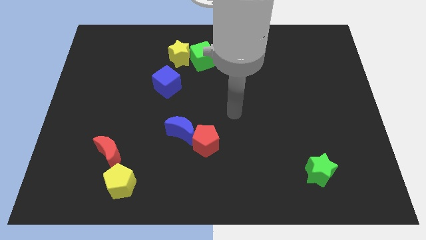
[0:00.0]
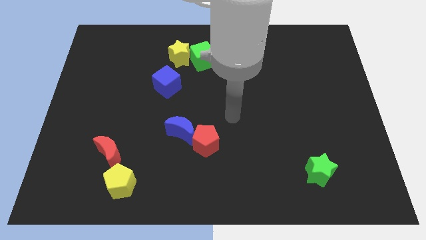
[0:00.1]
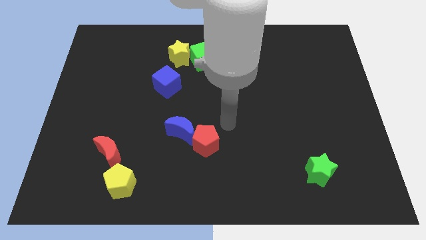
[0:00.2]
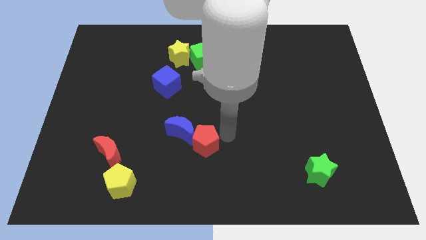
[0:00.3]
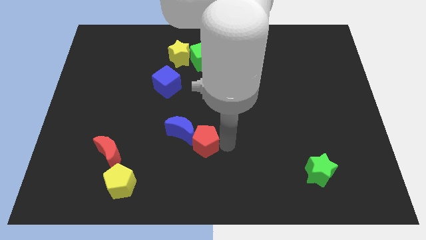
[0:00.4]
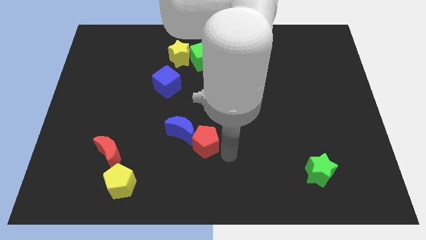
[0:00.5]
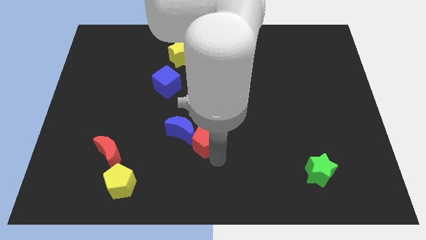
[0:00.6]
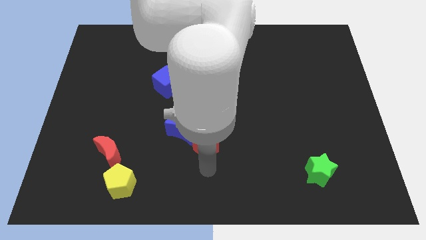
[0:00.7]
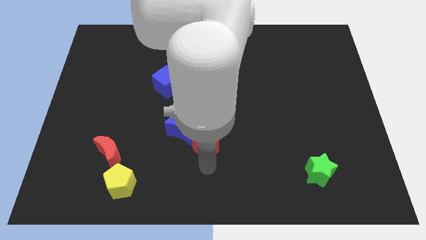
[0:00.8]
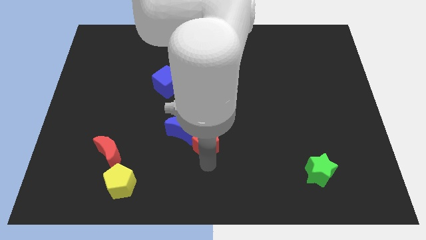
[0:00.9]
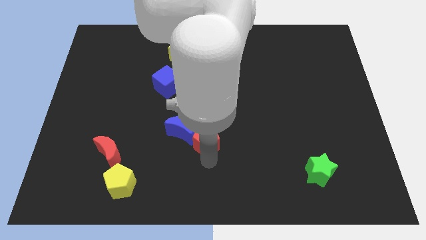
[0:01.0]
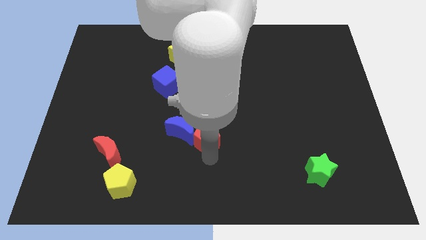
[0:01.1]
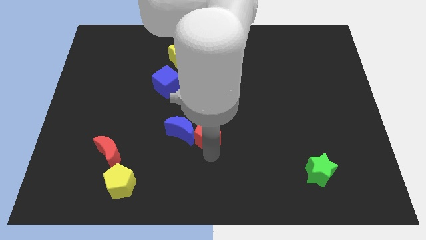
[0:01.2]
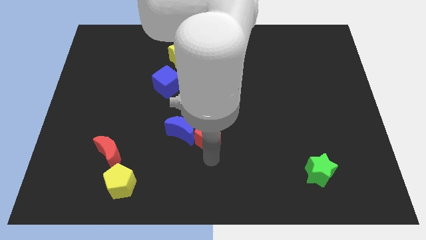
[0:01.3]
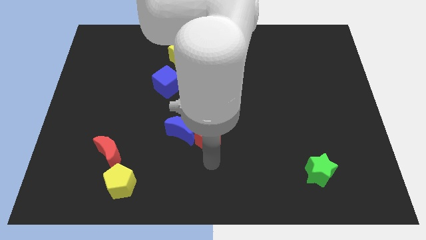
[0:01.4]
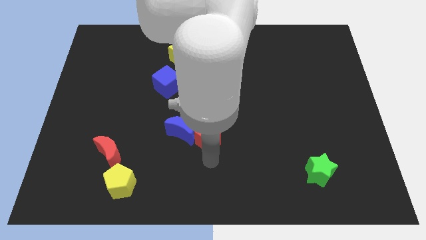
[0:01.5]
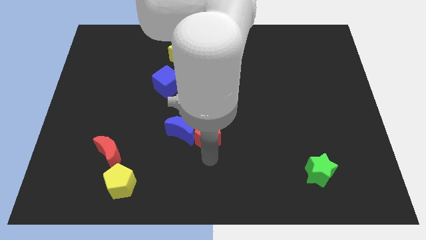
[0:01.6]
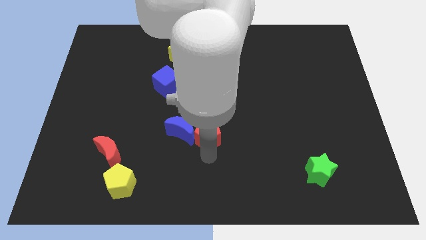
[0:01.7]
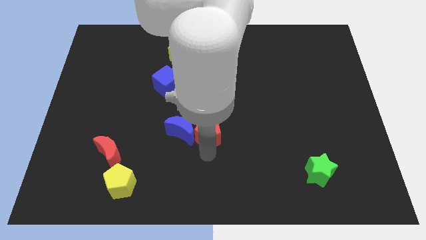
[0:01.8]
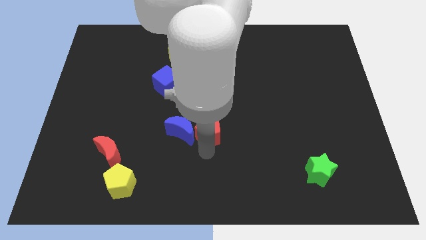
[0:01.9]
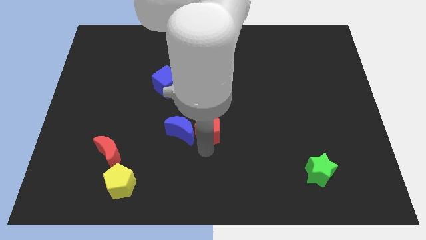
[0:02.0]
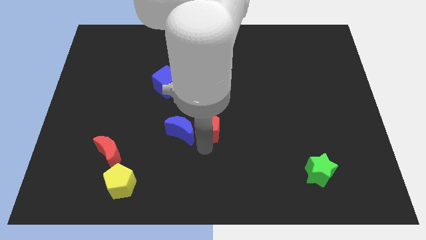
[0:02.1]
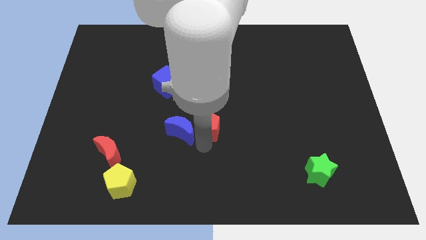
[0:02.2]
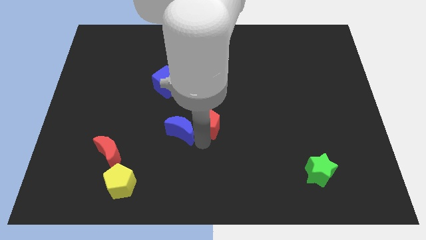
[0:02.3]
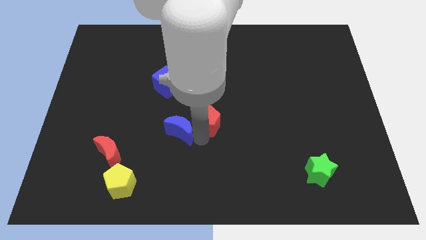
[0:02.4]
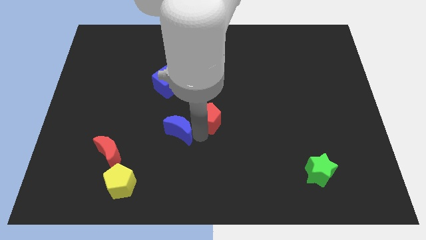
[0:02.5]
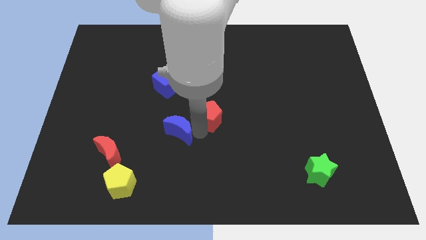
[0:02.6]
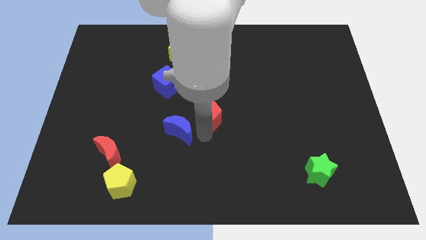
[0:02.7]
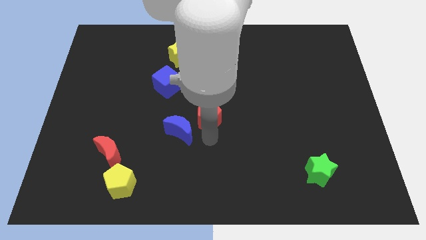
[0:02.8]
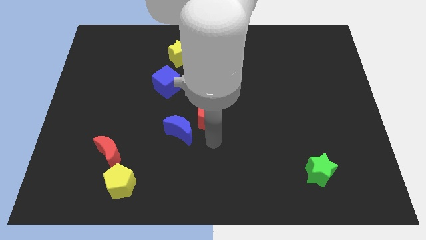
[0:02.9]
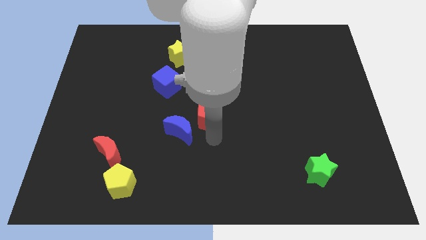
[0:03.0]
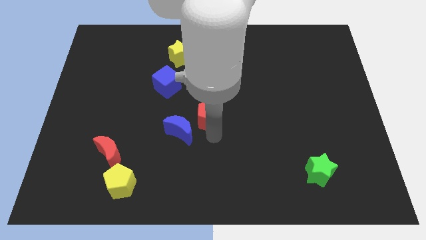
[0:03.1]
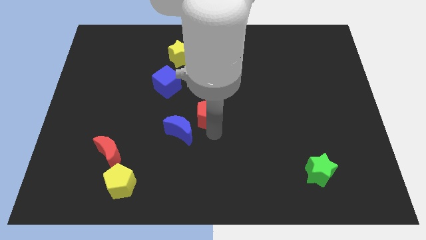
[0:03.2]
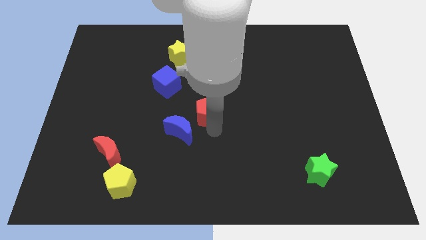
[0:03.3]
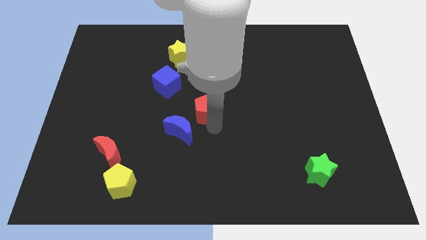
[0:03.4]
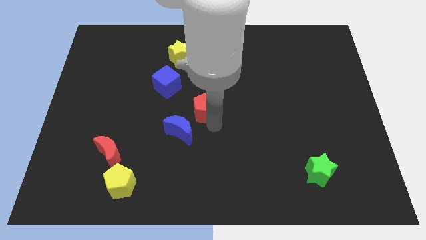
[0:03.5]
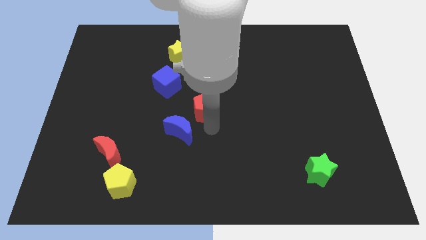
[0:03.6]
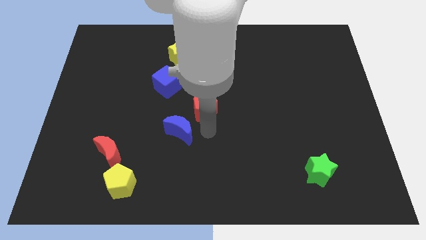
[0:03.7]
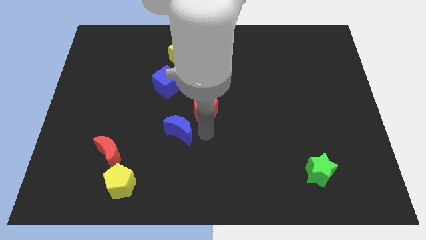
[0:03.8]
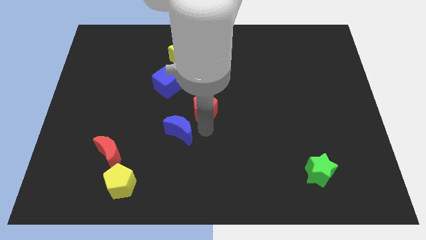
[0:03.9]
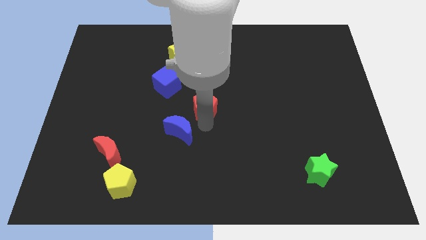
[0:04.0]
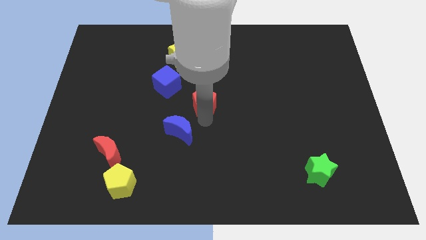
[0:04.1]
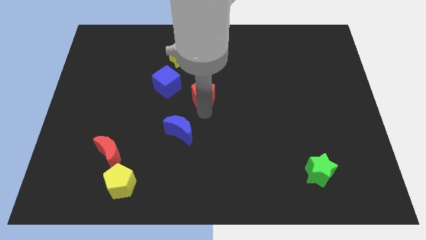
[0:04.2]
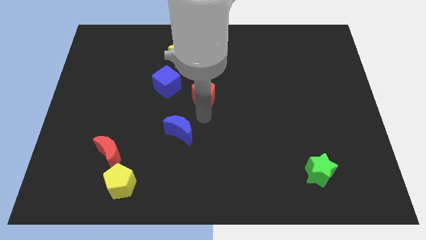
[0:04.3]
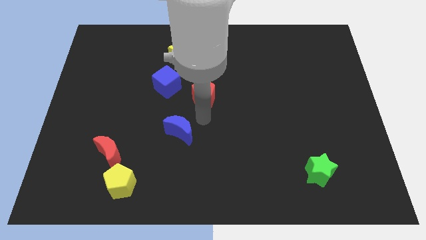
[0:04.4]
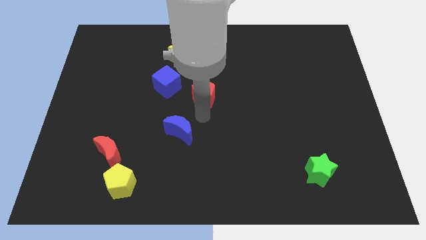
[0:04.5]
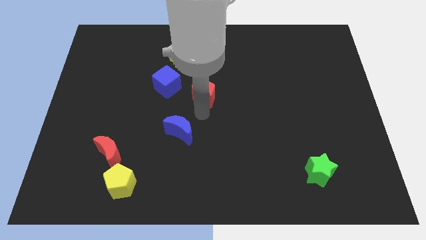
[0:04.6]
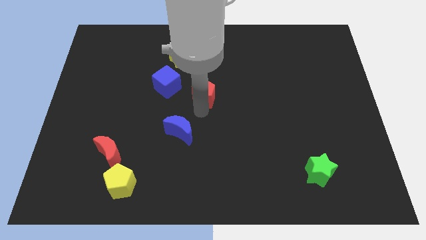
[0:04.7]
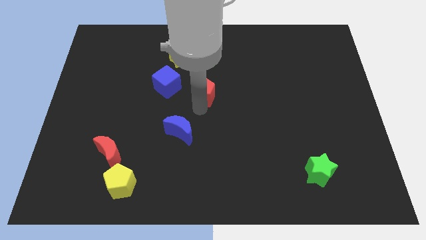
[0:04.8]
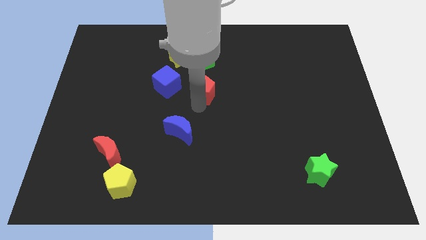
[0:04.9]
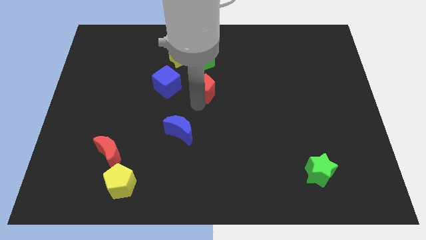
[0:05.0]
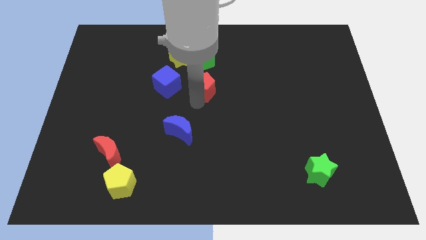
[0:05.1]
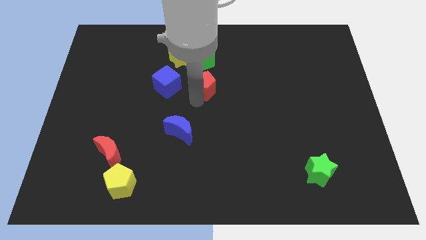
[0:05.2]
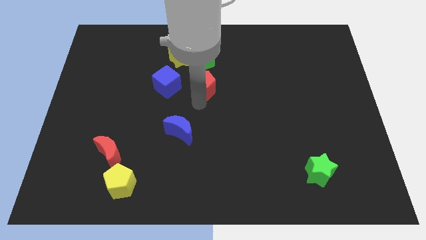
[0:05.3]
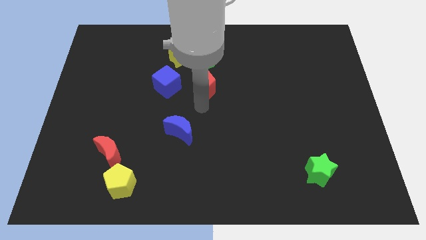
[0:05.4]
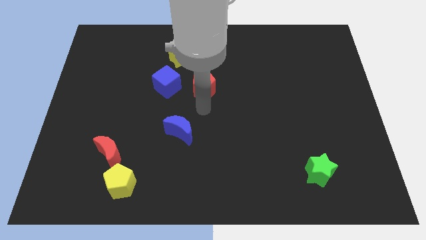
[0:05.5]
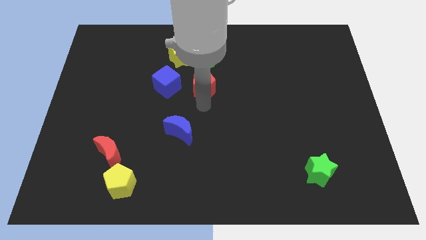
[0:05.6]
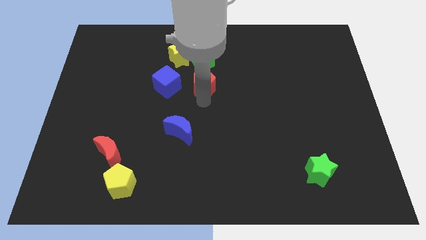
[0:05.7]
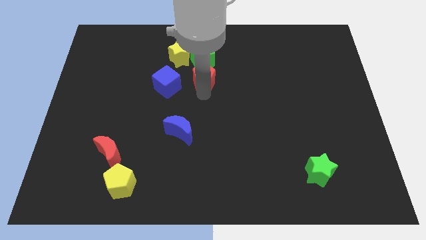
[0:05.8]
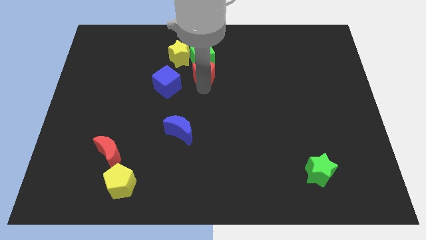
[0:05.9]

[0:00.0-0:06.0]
push the red pentagon towards the green cube

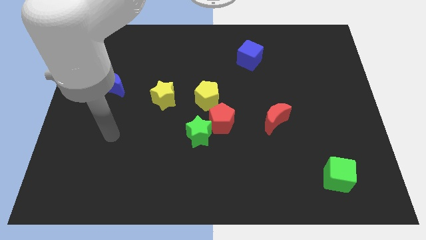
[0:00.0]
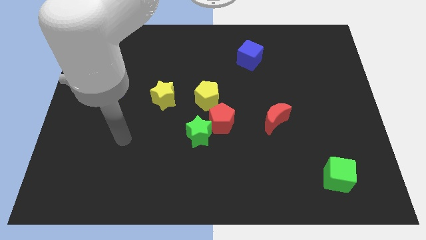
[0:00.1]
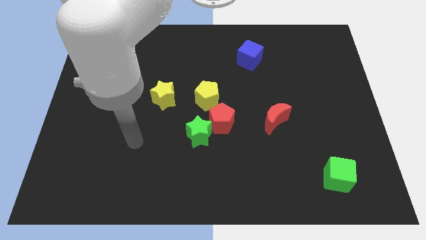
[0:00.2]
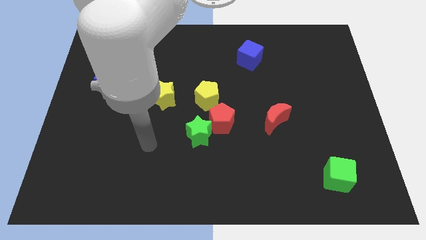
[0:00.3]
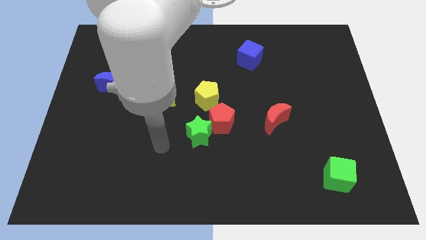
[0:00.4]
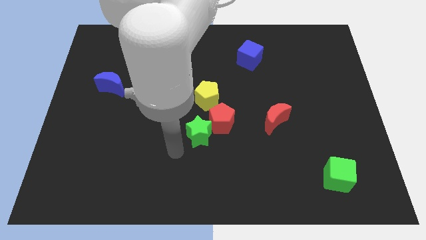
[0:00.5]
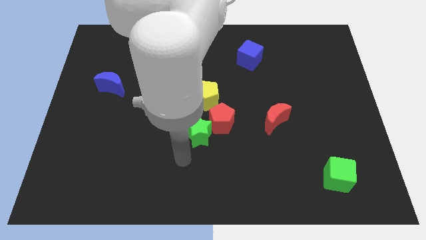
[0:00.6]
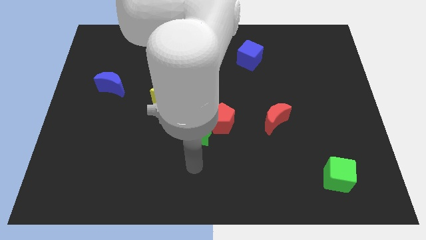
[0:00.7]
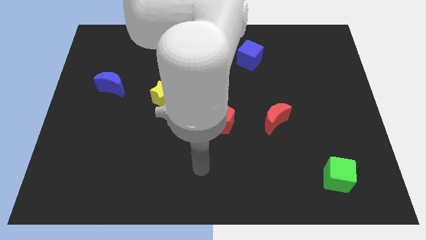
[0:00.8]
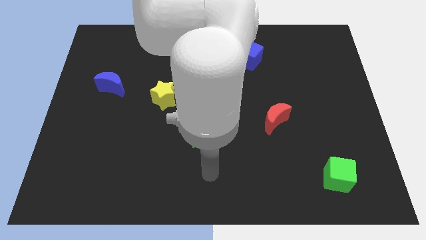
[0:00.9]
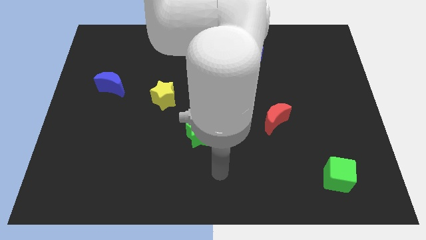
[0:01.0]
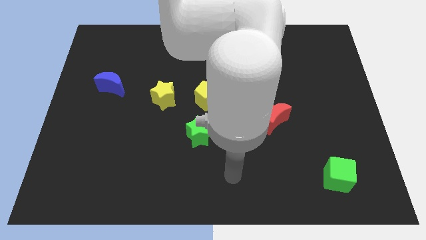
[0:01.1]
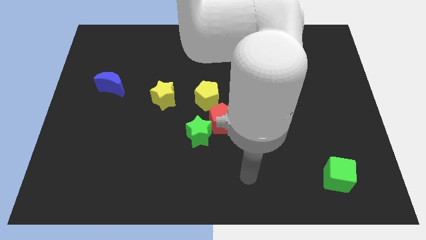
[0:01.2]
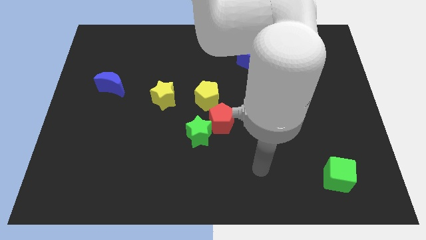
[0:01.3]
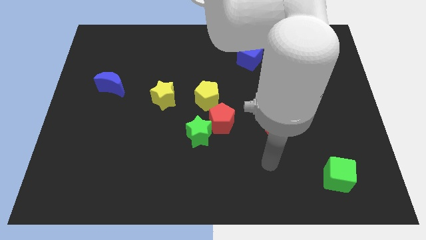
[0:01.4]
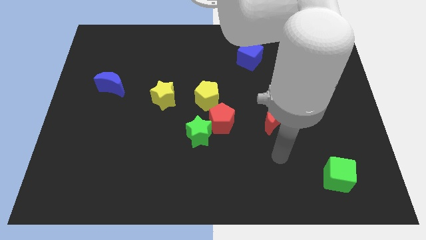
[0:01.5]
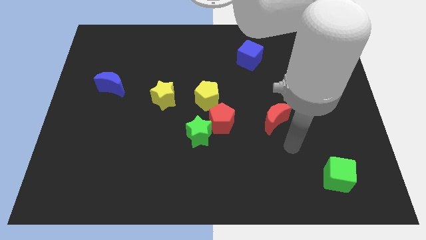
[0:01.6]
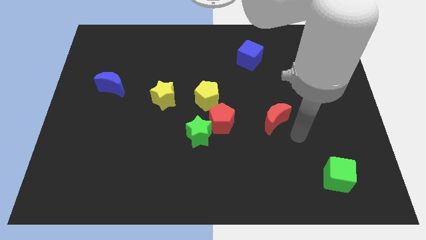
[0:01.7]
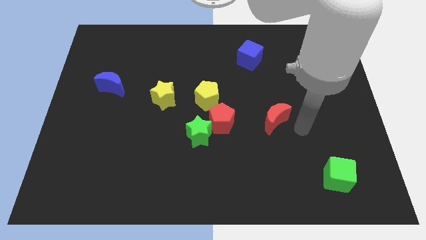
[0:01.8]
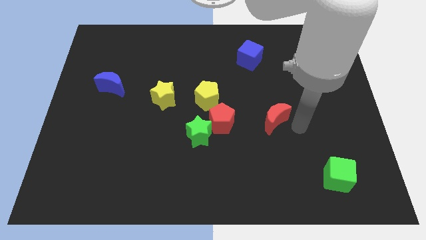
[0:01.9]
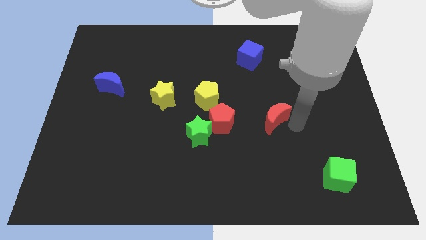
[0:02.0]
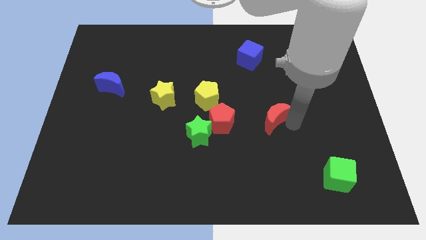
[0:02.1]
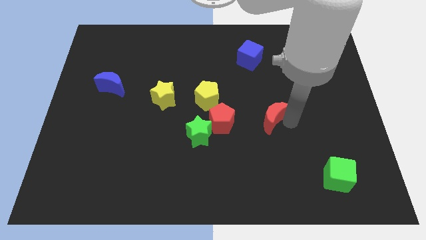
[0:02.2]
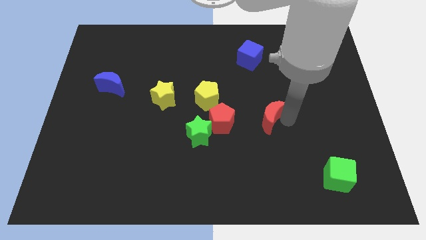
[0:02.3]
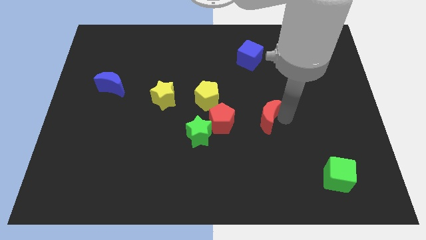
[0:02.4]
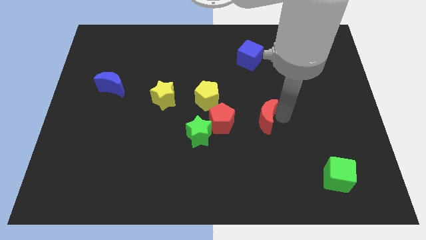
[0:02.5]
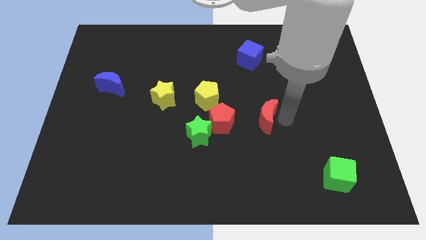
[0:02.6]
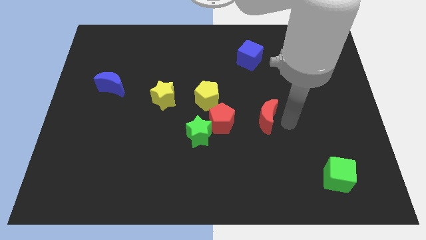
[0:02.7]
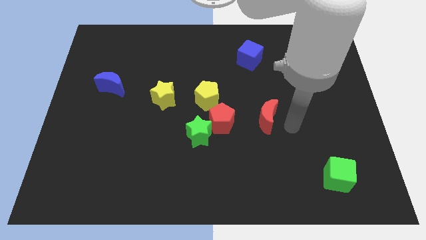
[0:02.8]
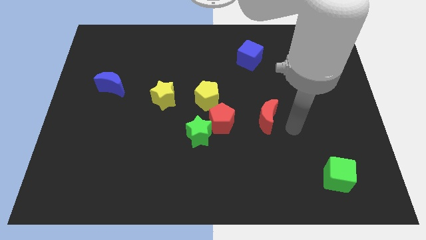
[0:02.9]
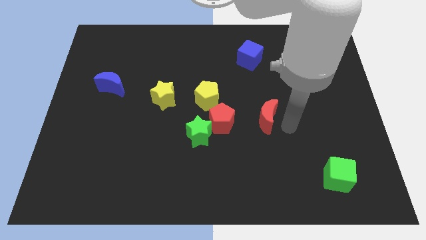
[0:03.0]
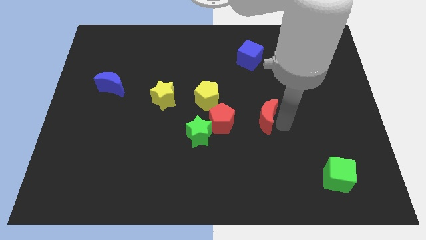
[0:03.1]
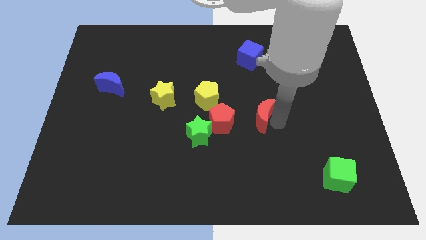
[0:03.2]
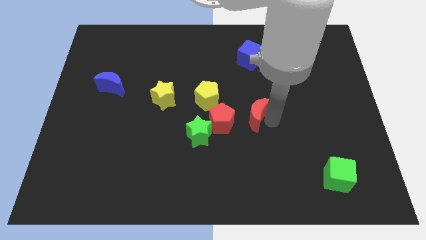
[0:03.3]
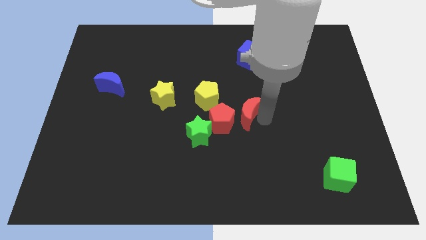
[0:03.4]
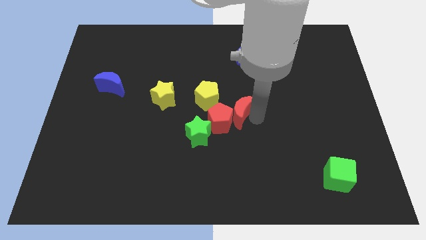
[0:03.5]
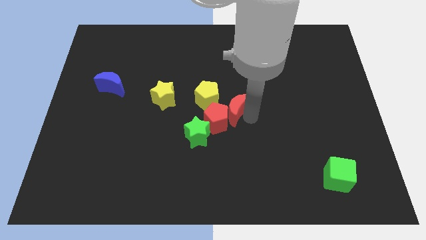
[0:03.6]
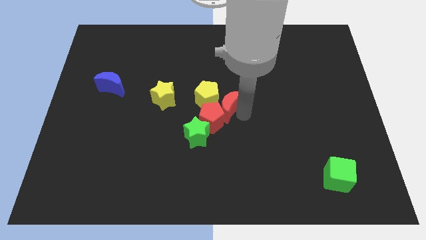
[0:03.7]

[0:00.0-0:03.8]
put the red moon next to the yellow pentagon
